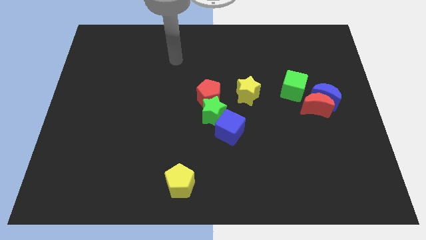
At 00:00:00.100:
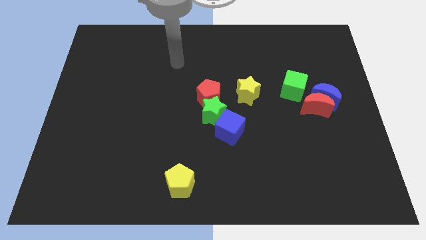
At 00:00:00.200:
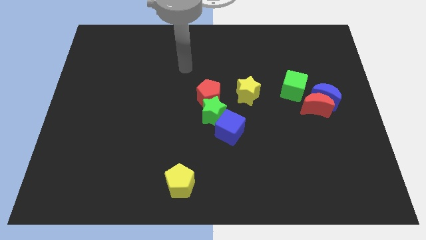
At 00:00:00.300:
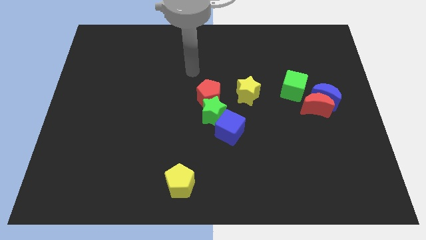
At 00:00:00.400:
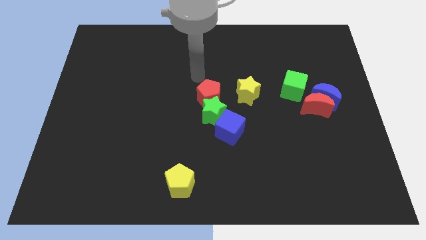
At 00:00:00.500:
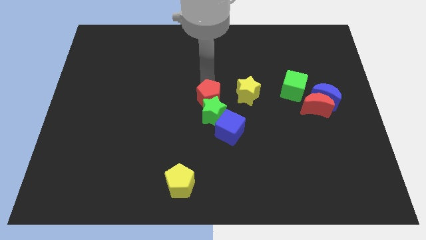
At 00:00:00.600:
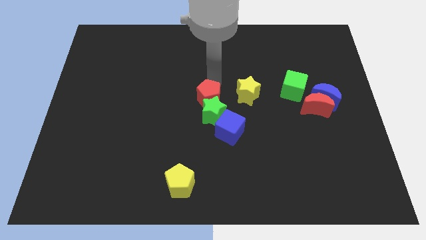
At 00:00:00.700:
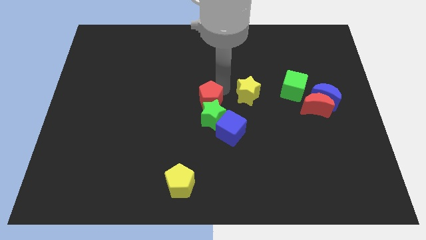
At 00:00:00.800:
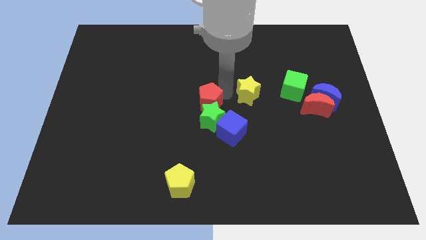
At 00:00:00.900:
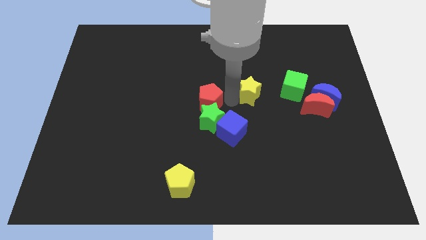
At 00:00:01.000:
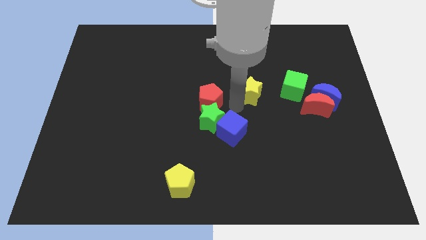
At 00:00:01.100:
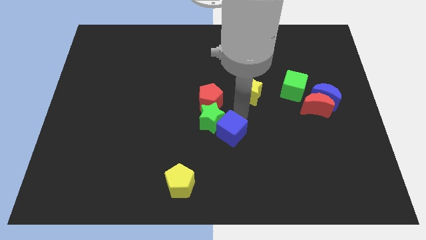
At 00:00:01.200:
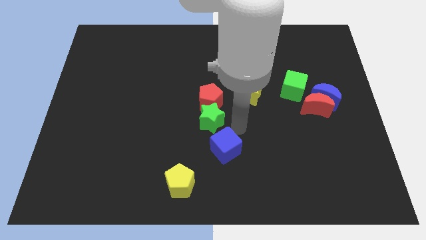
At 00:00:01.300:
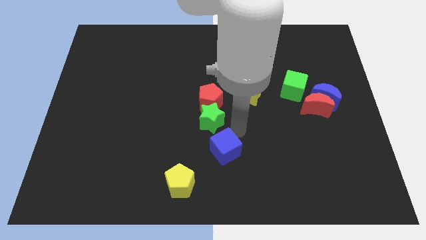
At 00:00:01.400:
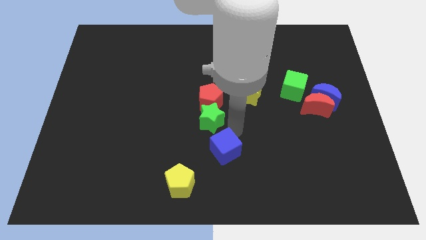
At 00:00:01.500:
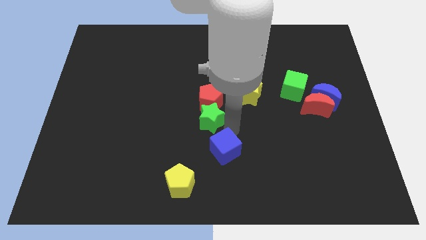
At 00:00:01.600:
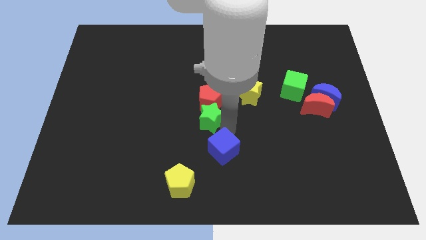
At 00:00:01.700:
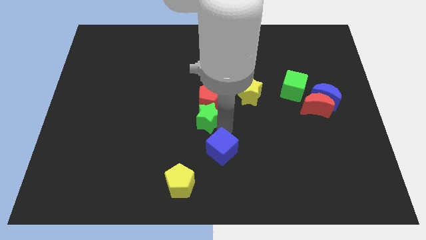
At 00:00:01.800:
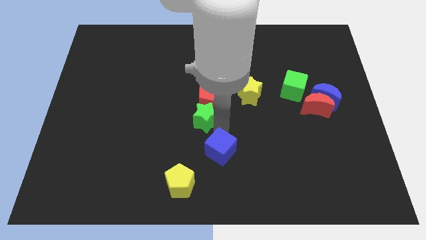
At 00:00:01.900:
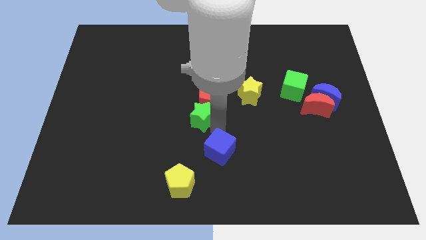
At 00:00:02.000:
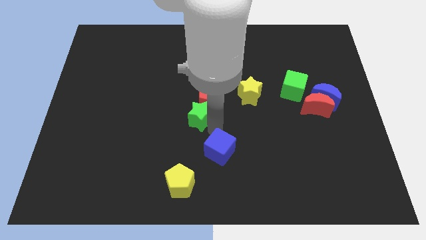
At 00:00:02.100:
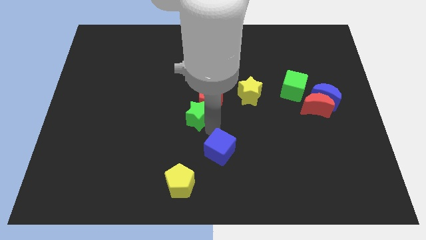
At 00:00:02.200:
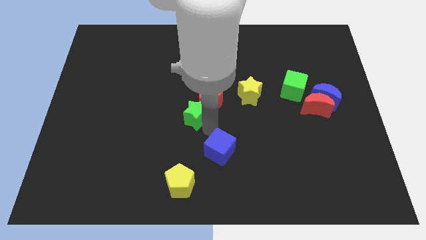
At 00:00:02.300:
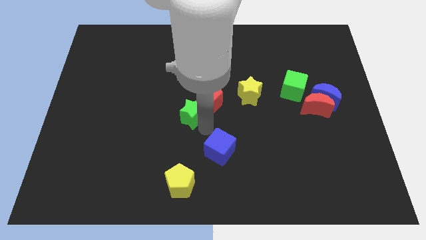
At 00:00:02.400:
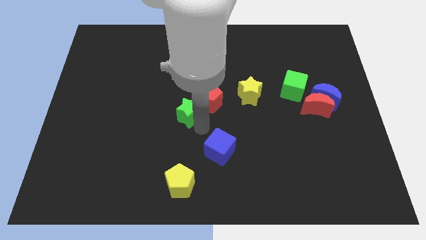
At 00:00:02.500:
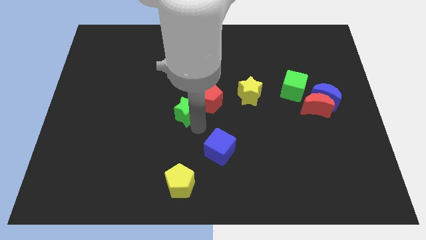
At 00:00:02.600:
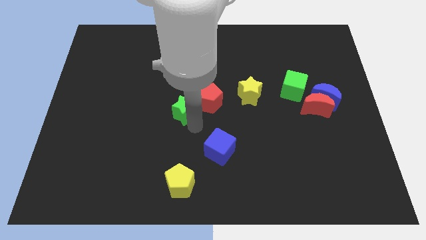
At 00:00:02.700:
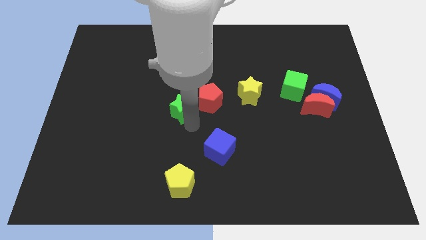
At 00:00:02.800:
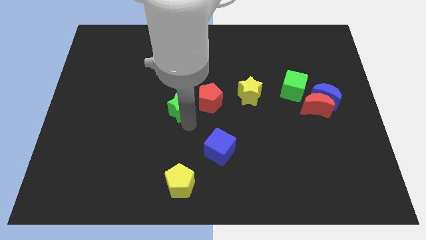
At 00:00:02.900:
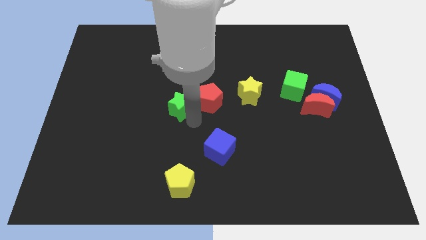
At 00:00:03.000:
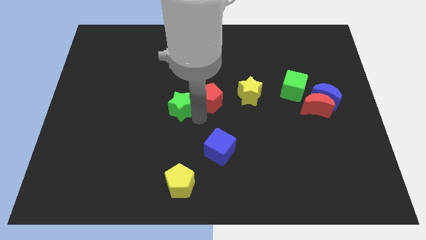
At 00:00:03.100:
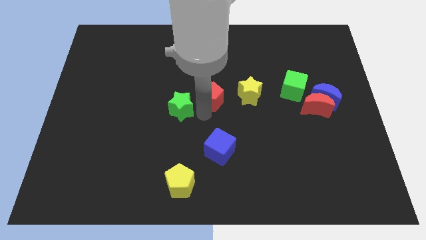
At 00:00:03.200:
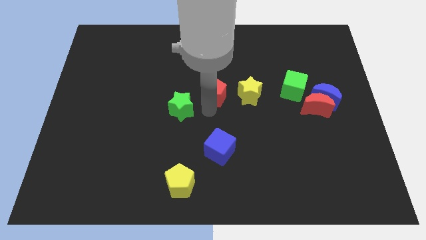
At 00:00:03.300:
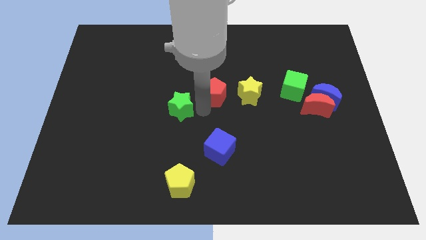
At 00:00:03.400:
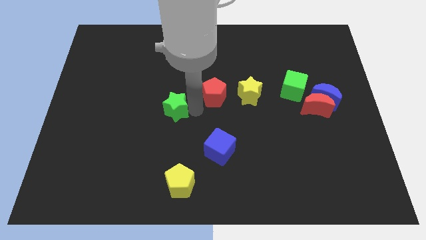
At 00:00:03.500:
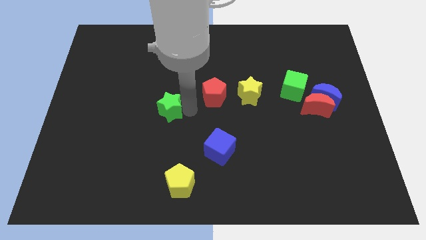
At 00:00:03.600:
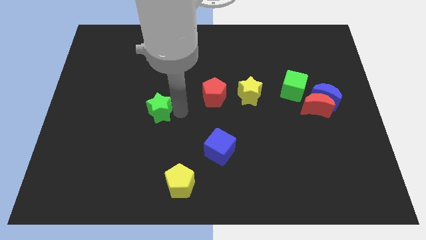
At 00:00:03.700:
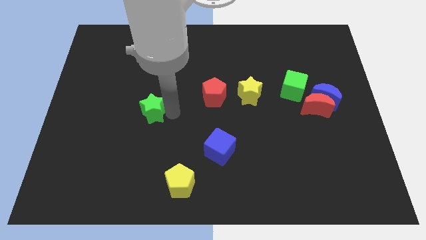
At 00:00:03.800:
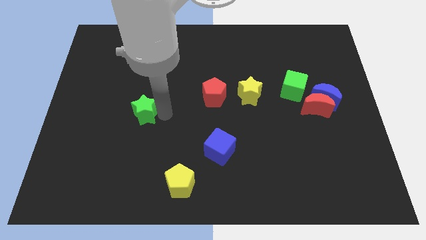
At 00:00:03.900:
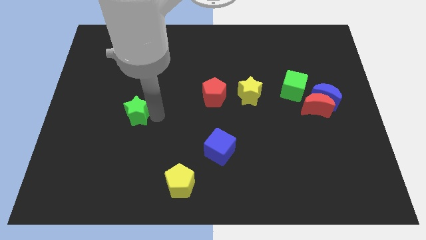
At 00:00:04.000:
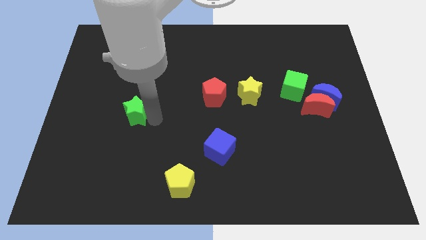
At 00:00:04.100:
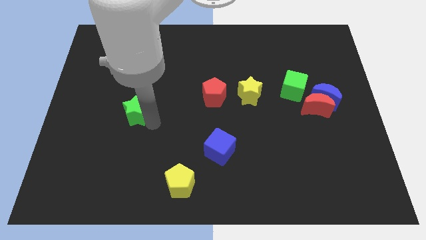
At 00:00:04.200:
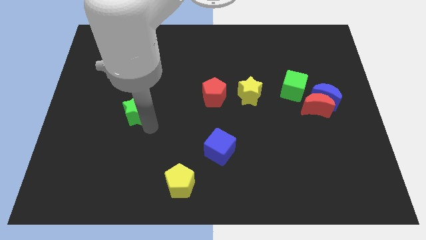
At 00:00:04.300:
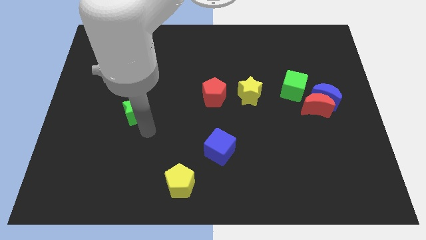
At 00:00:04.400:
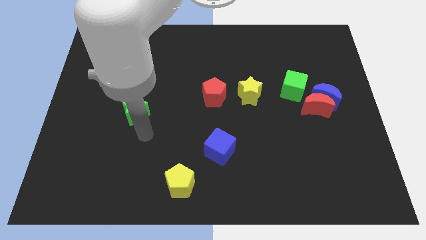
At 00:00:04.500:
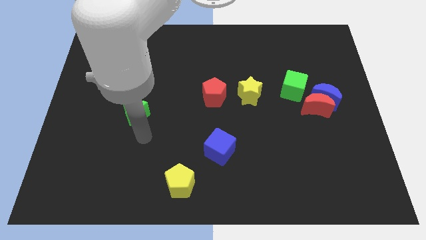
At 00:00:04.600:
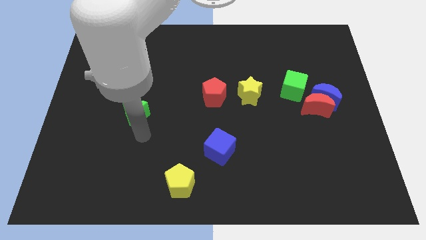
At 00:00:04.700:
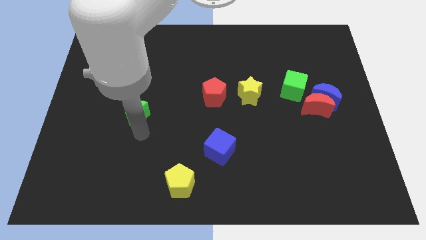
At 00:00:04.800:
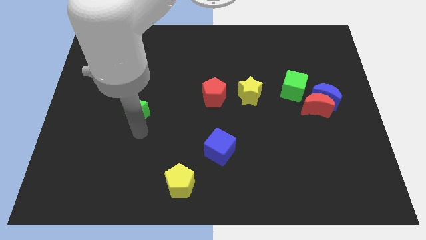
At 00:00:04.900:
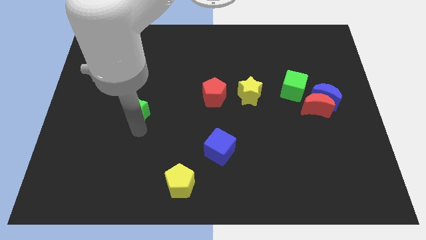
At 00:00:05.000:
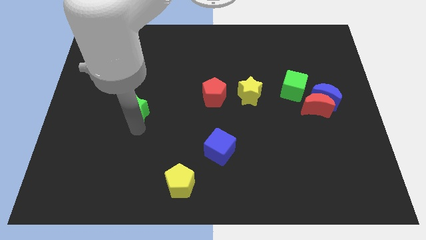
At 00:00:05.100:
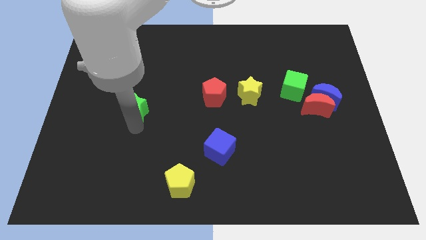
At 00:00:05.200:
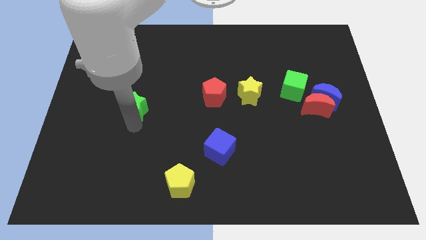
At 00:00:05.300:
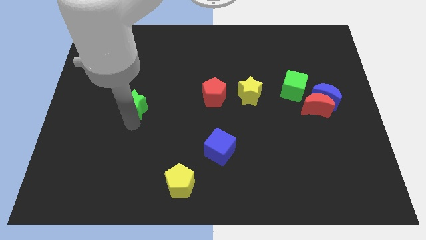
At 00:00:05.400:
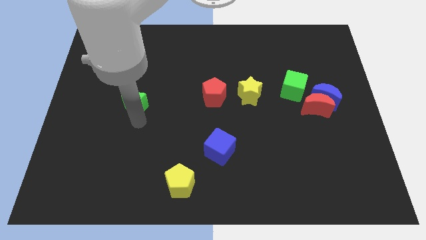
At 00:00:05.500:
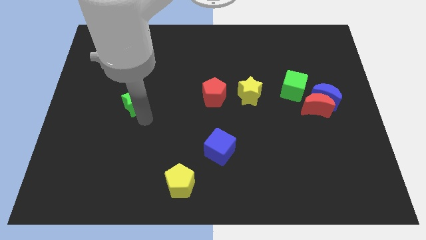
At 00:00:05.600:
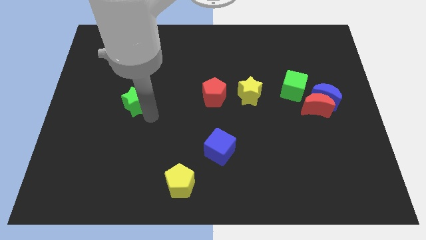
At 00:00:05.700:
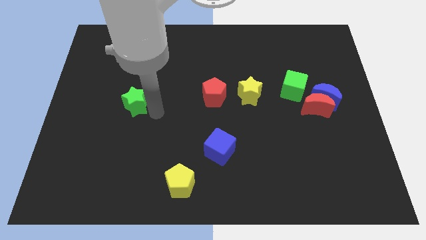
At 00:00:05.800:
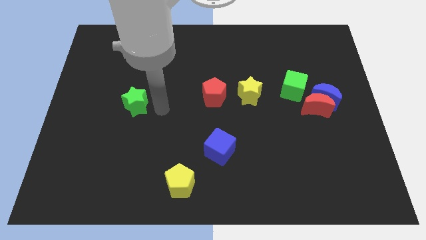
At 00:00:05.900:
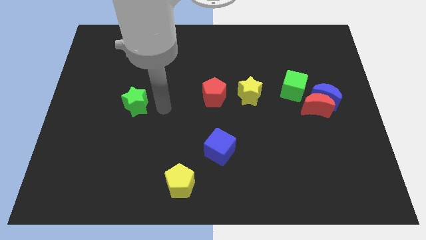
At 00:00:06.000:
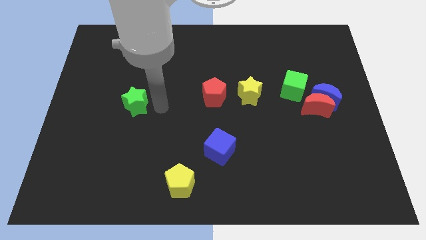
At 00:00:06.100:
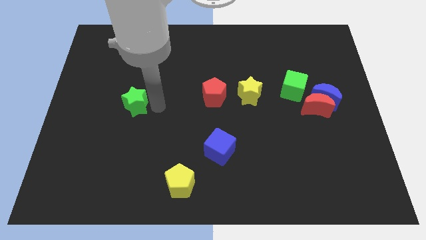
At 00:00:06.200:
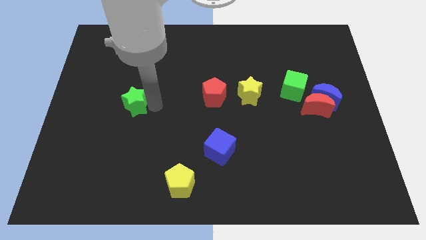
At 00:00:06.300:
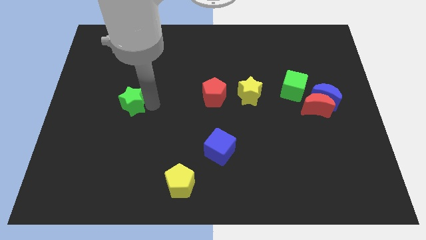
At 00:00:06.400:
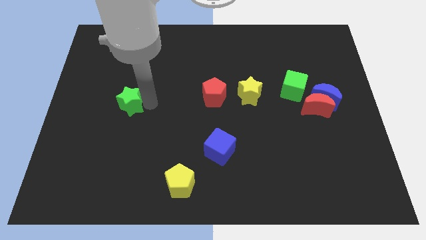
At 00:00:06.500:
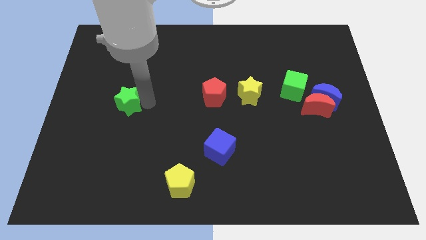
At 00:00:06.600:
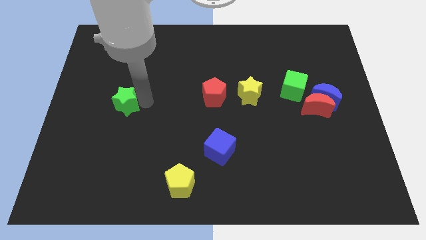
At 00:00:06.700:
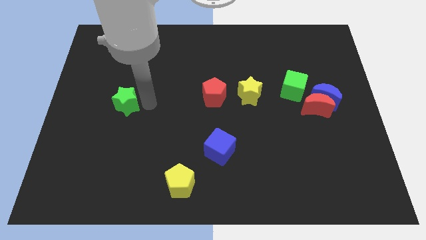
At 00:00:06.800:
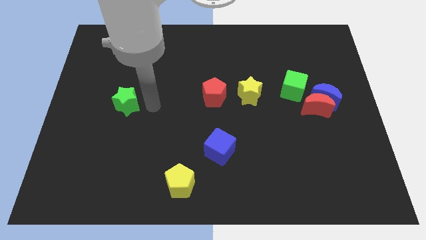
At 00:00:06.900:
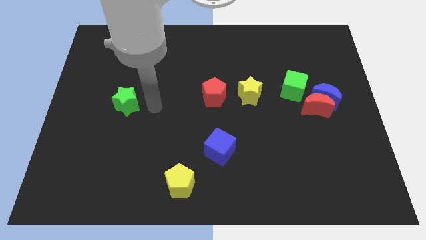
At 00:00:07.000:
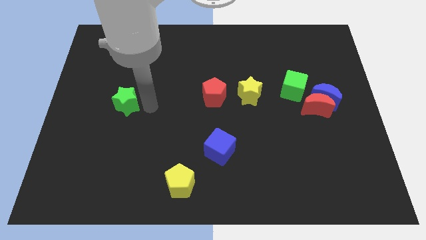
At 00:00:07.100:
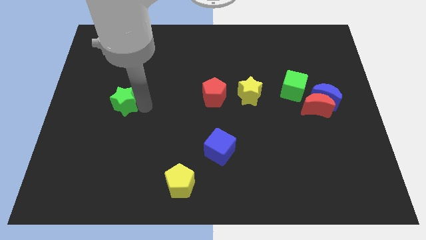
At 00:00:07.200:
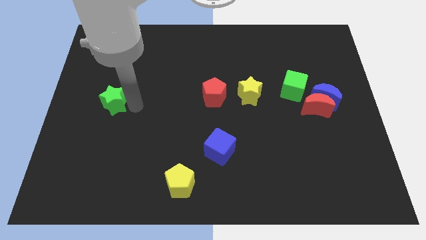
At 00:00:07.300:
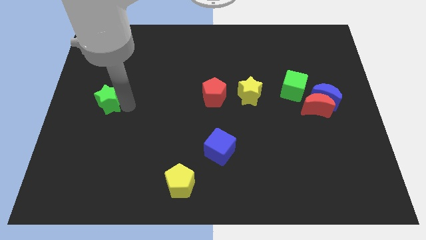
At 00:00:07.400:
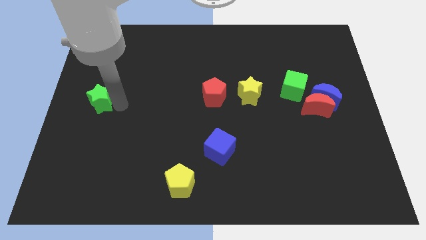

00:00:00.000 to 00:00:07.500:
slide the green star to the center left
